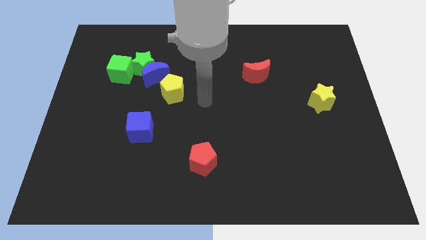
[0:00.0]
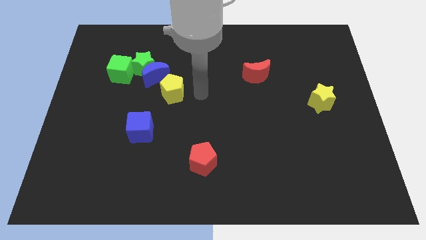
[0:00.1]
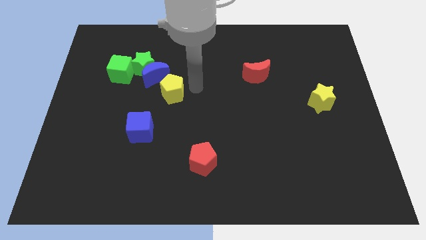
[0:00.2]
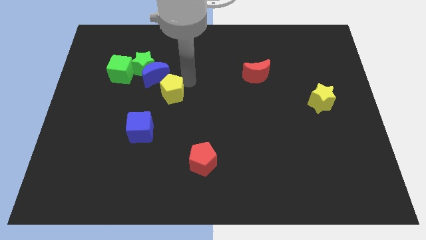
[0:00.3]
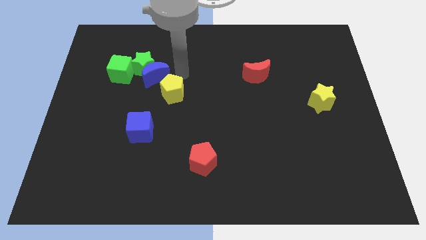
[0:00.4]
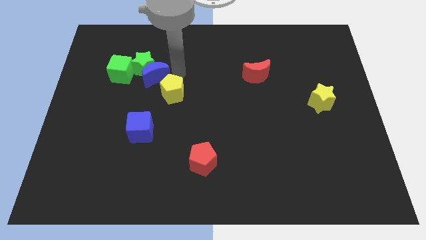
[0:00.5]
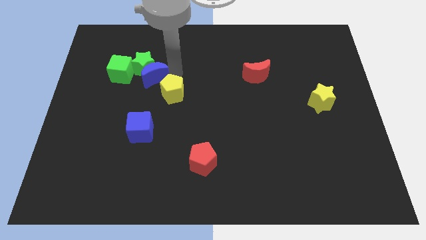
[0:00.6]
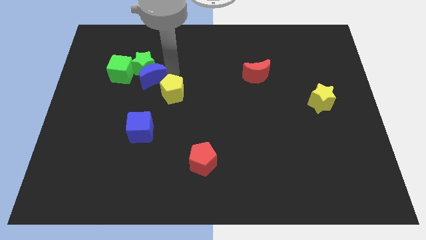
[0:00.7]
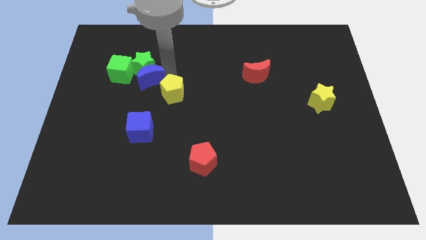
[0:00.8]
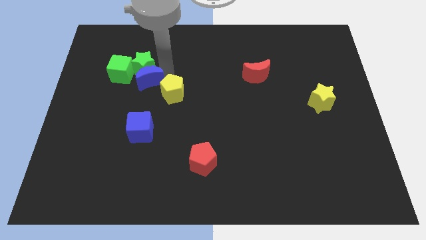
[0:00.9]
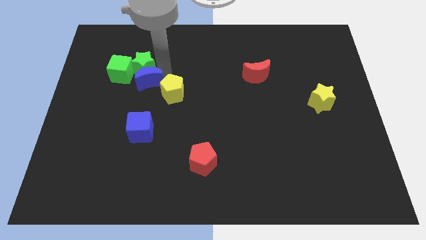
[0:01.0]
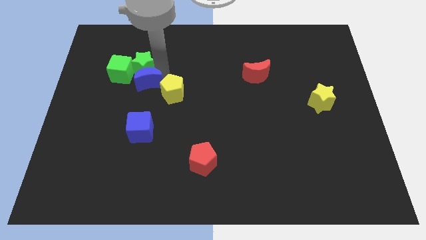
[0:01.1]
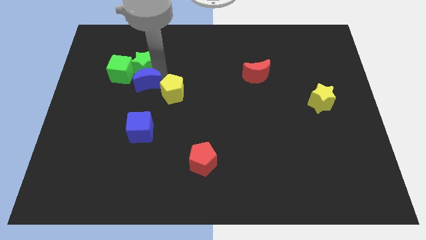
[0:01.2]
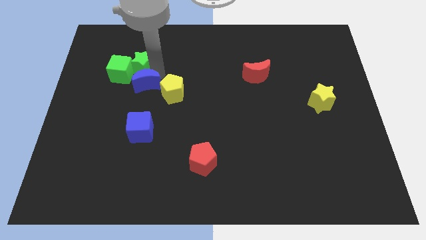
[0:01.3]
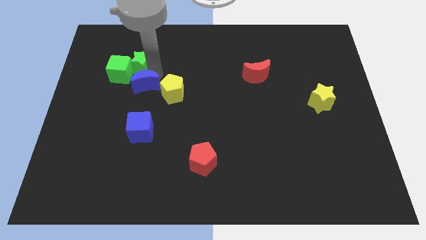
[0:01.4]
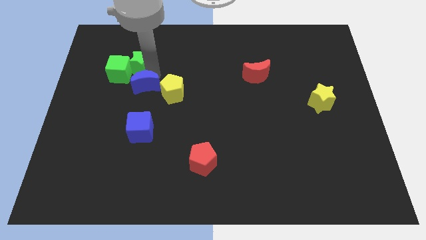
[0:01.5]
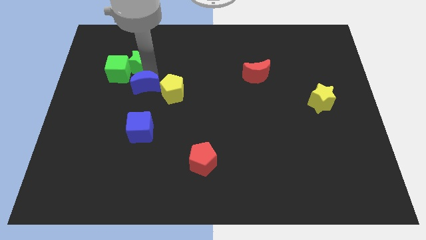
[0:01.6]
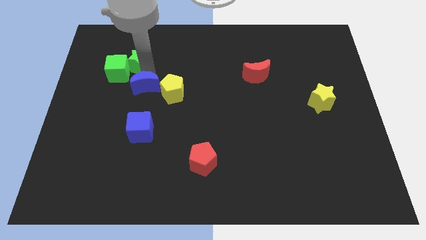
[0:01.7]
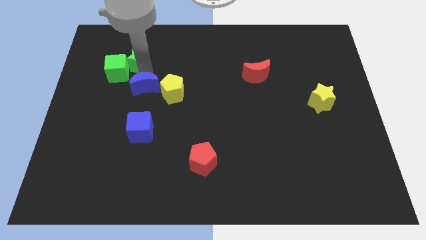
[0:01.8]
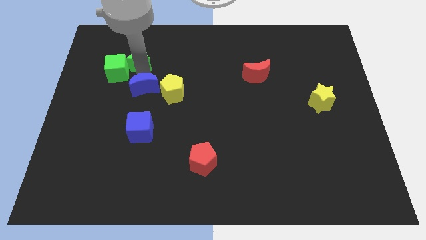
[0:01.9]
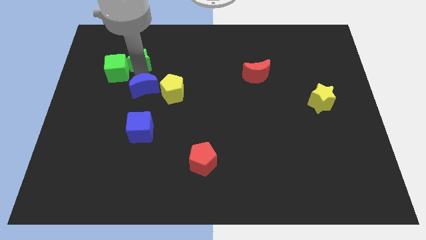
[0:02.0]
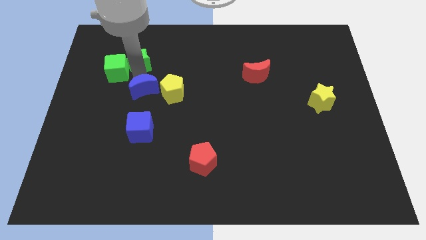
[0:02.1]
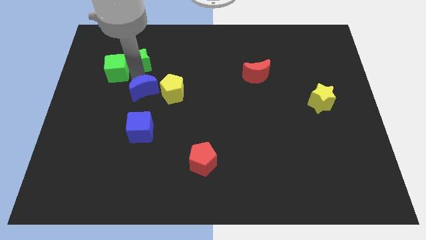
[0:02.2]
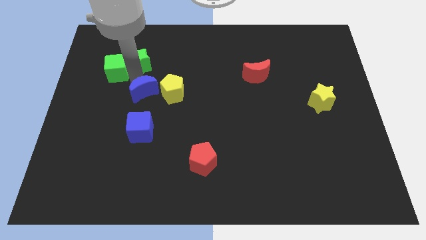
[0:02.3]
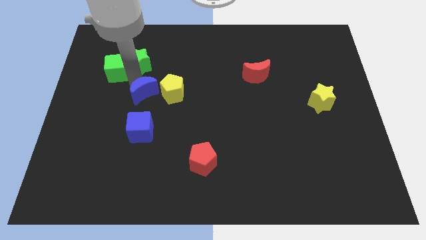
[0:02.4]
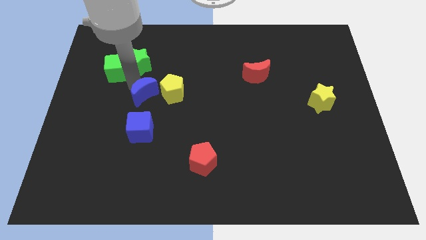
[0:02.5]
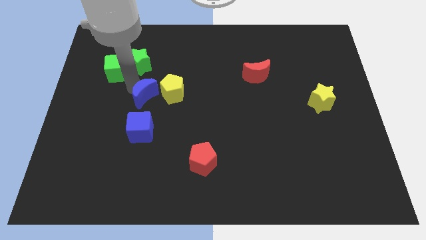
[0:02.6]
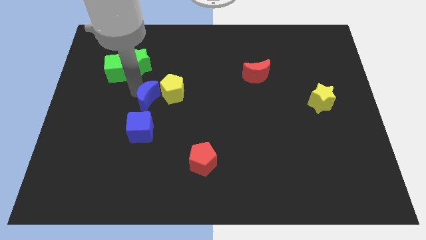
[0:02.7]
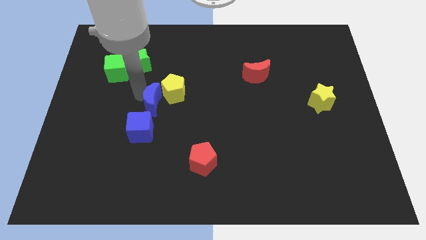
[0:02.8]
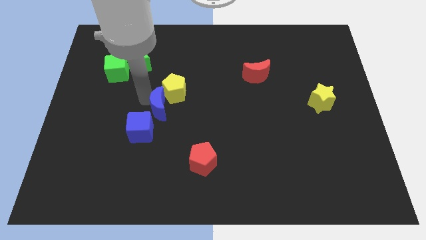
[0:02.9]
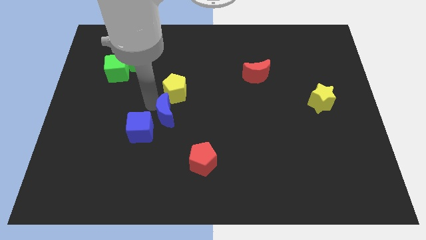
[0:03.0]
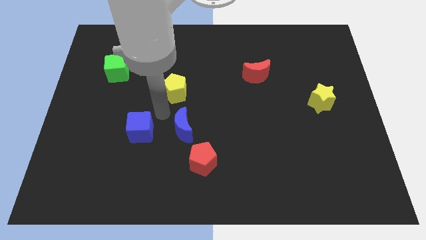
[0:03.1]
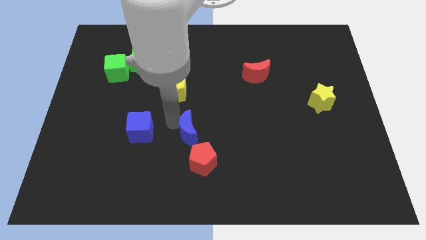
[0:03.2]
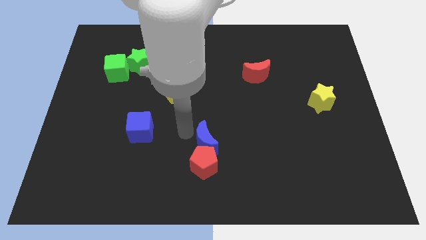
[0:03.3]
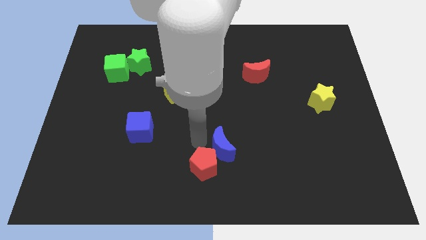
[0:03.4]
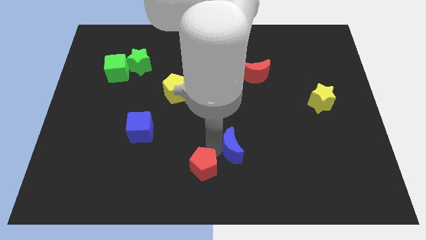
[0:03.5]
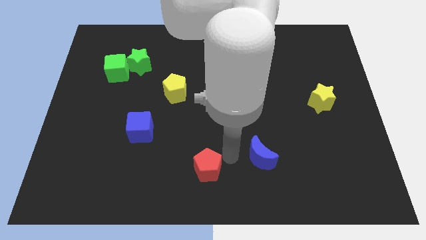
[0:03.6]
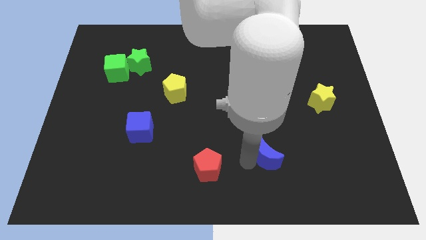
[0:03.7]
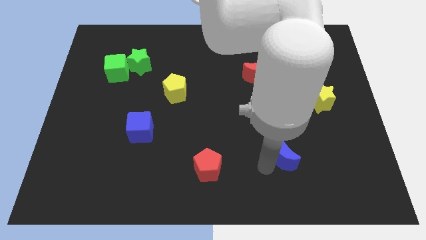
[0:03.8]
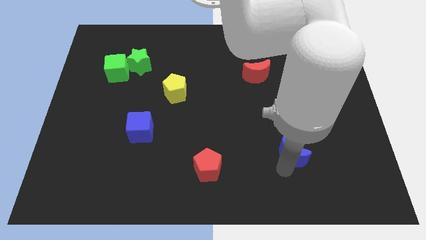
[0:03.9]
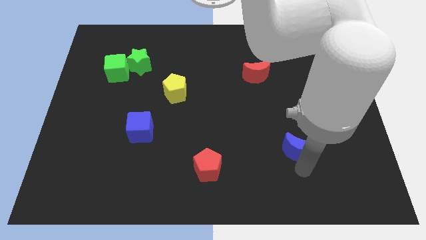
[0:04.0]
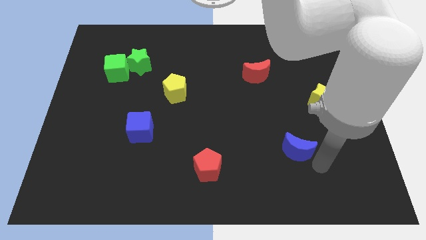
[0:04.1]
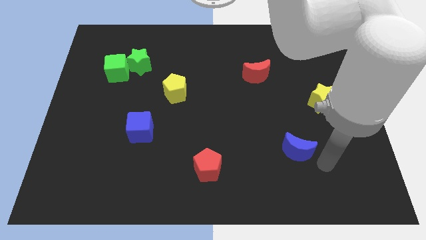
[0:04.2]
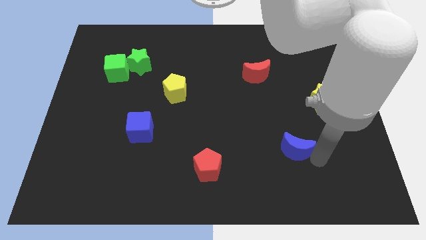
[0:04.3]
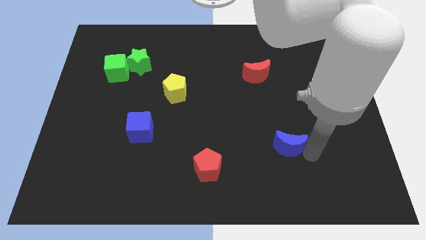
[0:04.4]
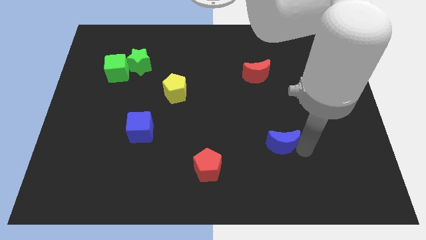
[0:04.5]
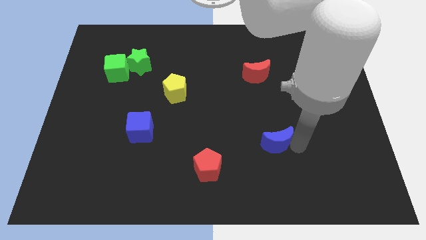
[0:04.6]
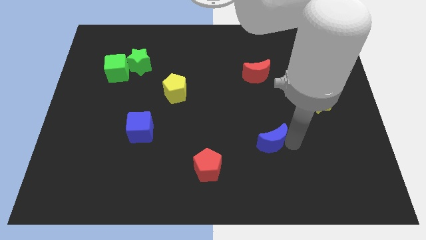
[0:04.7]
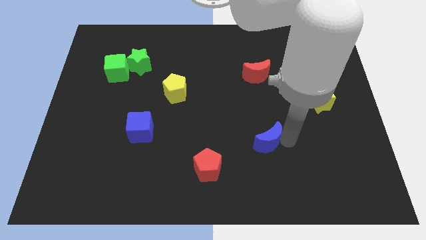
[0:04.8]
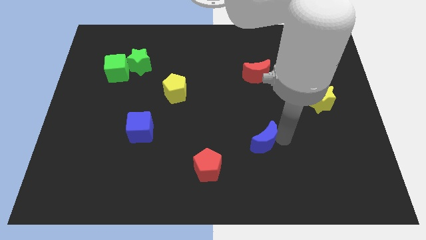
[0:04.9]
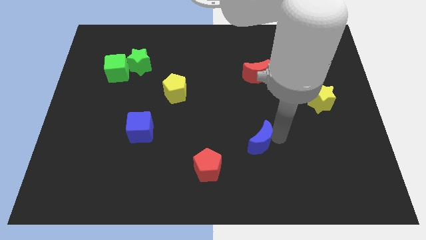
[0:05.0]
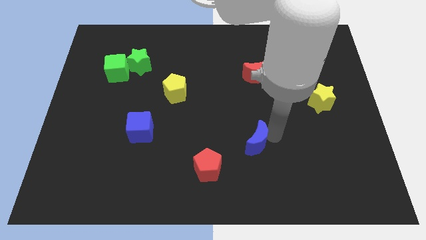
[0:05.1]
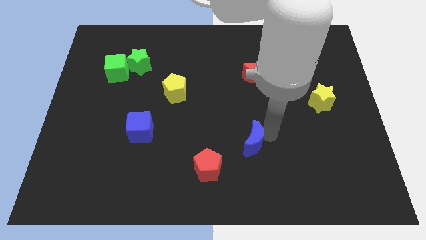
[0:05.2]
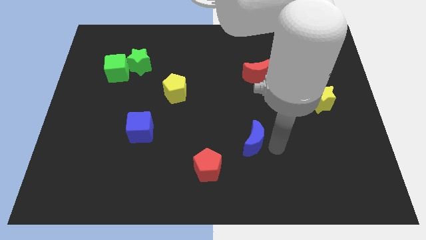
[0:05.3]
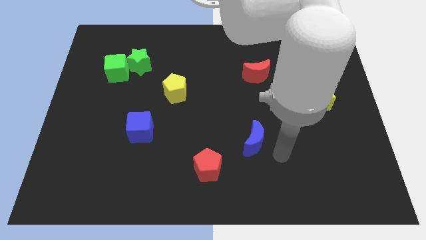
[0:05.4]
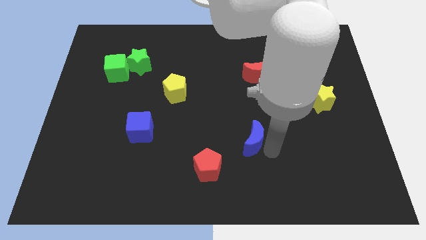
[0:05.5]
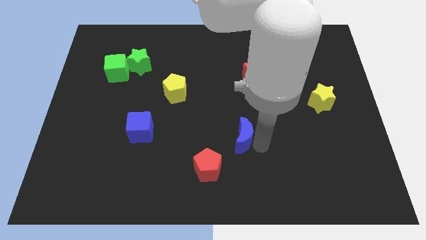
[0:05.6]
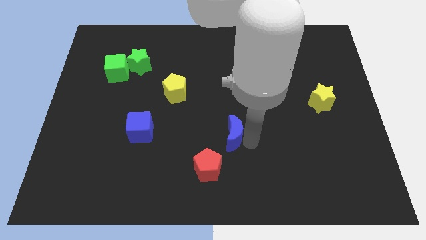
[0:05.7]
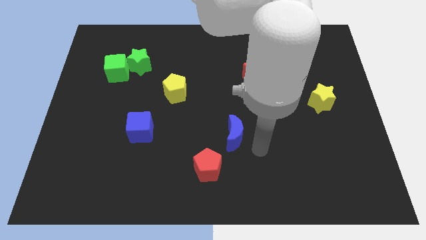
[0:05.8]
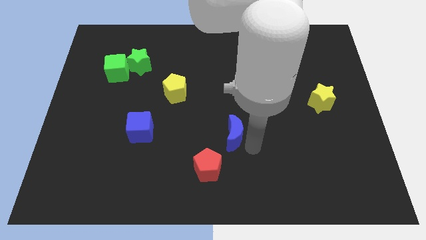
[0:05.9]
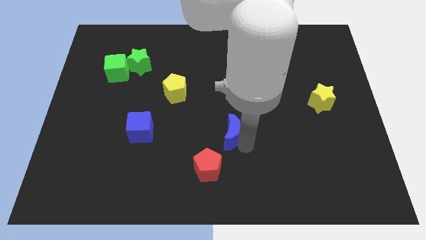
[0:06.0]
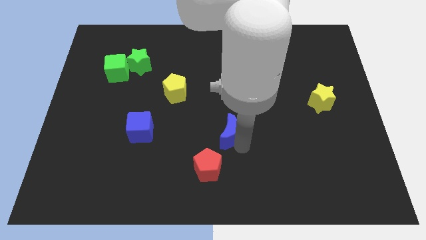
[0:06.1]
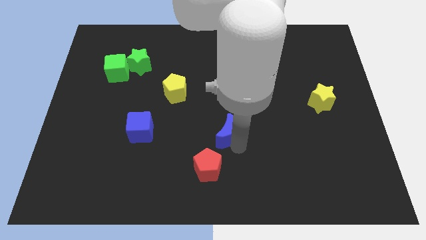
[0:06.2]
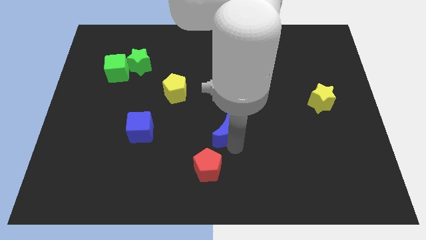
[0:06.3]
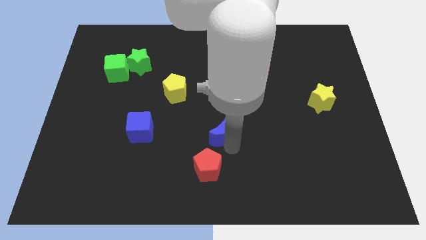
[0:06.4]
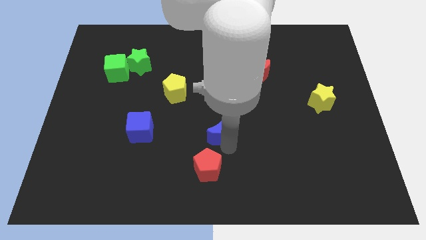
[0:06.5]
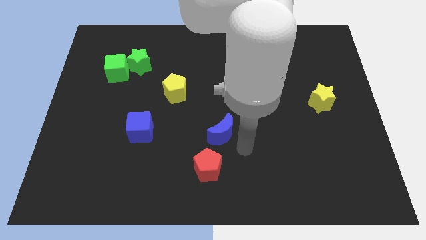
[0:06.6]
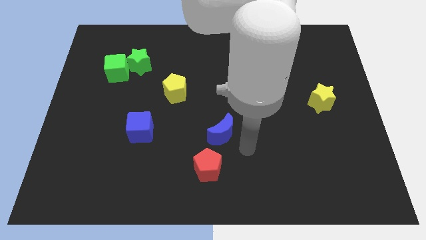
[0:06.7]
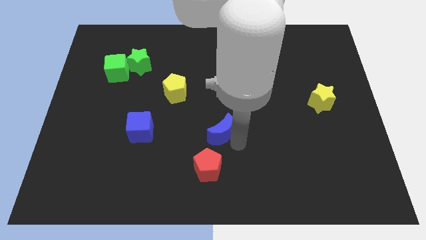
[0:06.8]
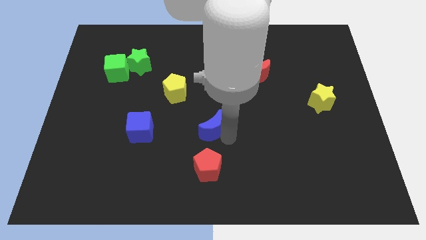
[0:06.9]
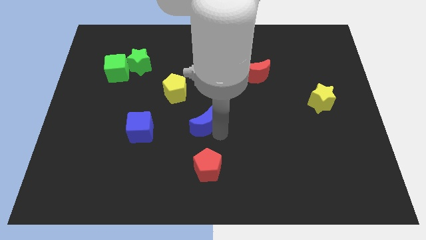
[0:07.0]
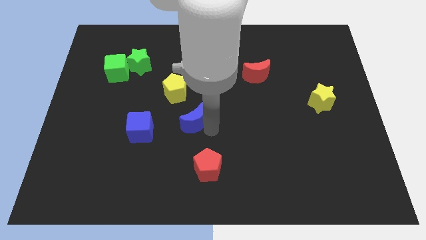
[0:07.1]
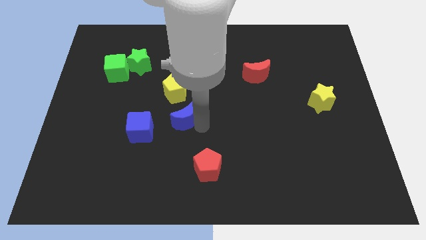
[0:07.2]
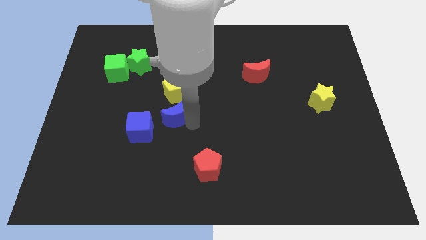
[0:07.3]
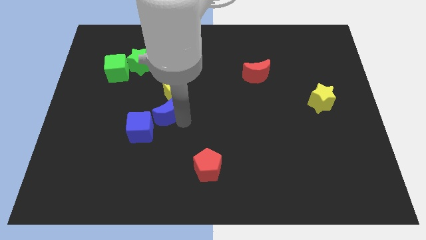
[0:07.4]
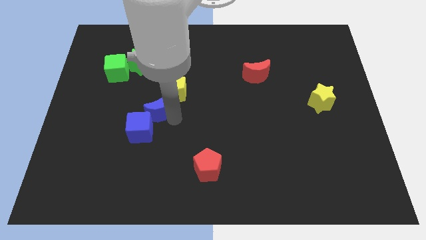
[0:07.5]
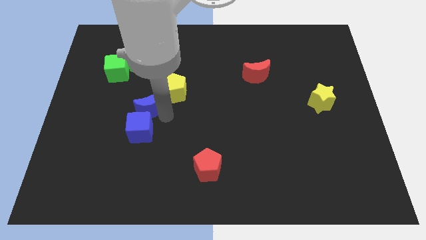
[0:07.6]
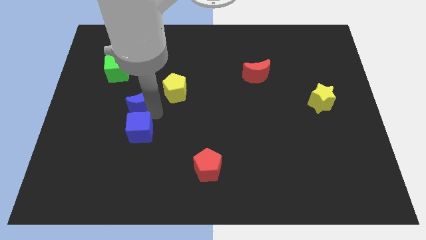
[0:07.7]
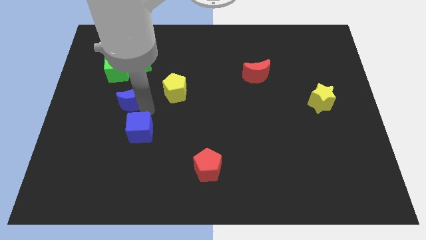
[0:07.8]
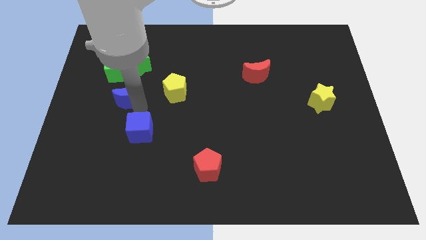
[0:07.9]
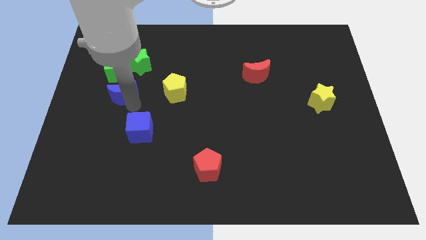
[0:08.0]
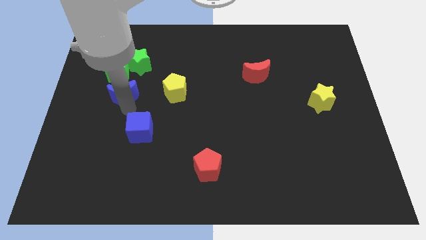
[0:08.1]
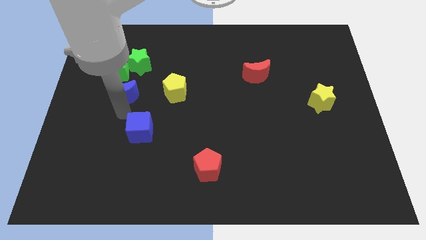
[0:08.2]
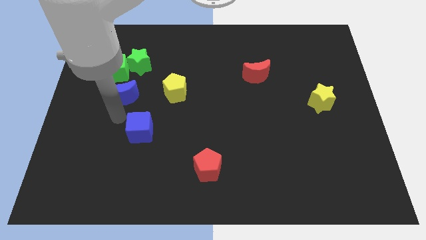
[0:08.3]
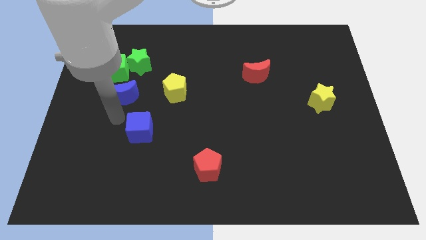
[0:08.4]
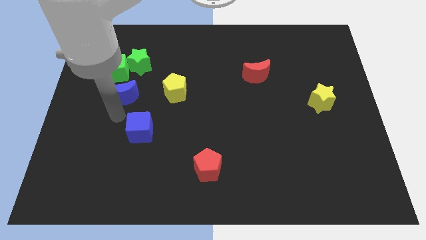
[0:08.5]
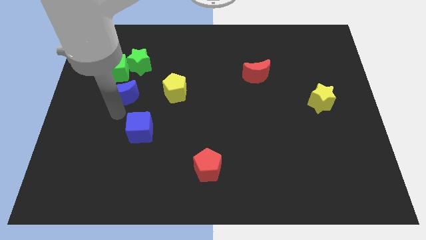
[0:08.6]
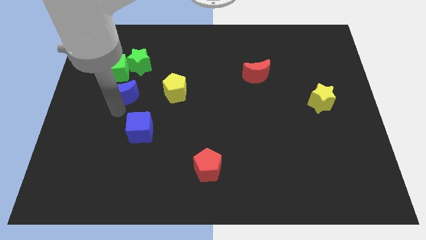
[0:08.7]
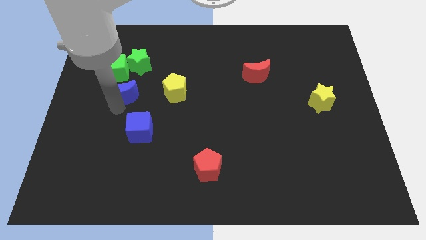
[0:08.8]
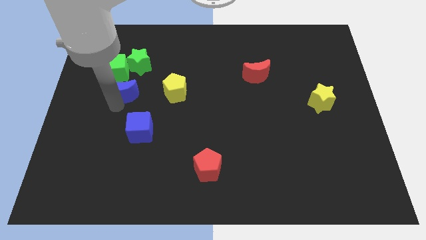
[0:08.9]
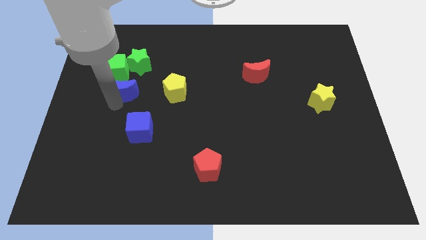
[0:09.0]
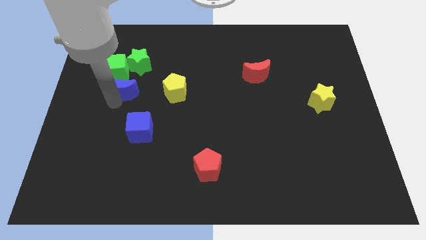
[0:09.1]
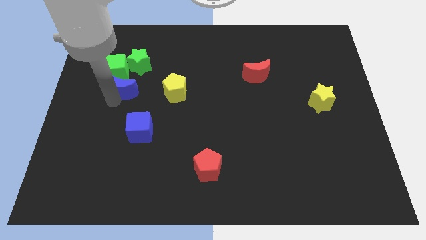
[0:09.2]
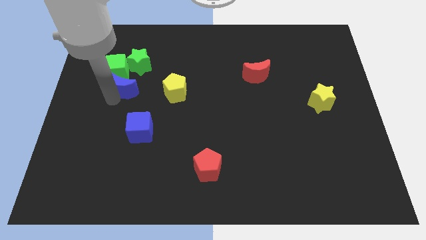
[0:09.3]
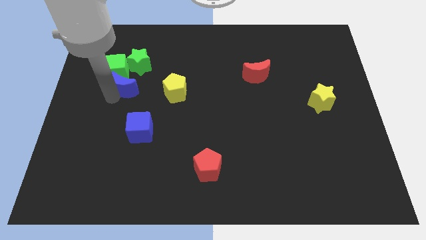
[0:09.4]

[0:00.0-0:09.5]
slide the blue moon close to the green cube
